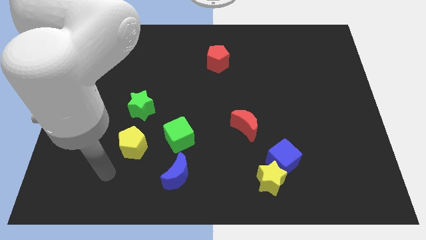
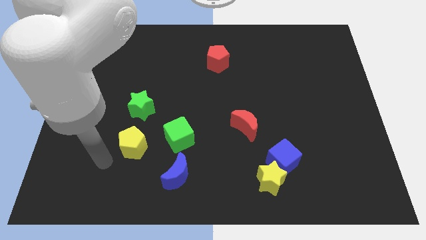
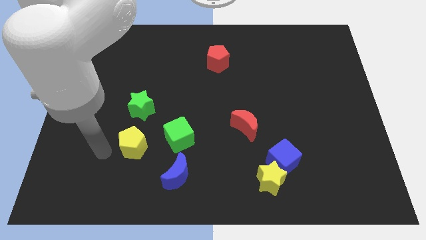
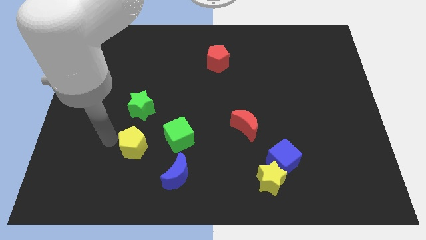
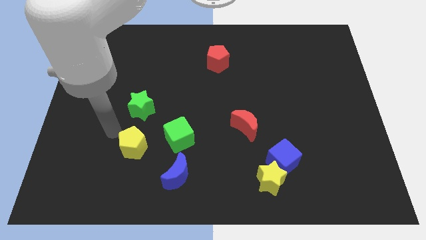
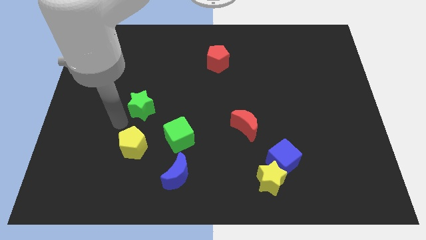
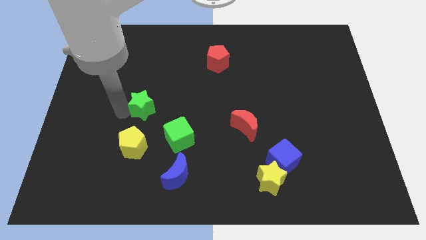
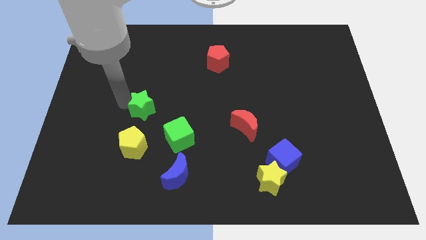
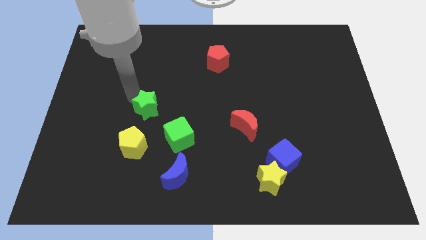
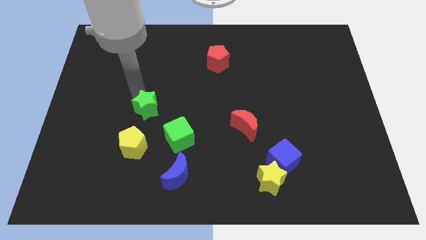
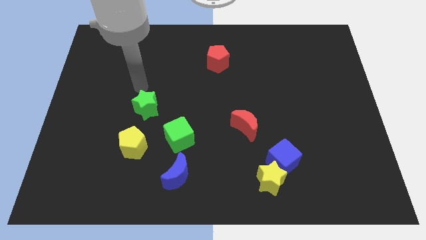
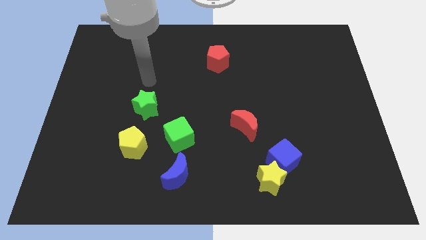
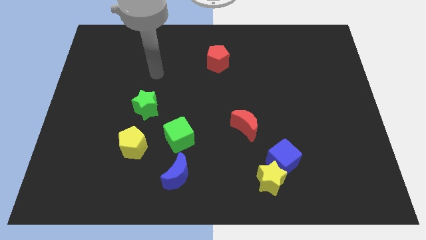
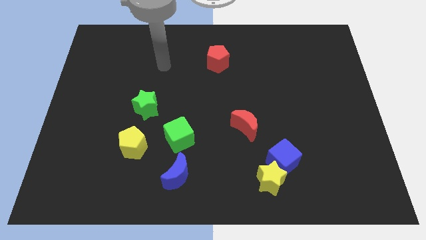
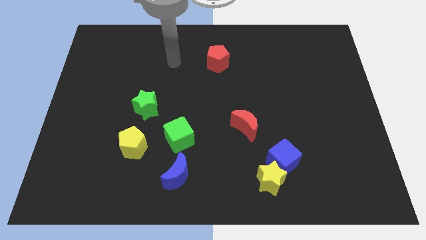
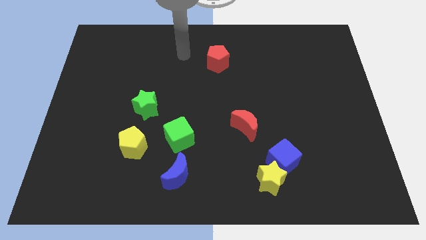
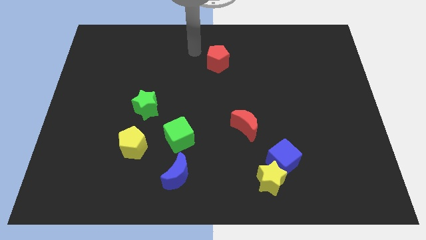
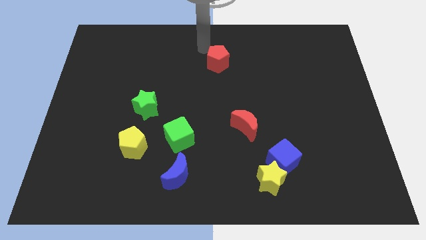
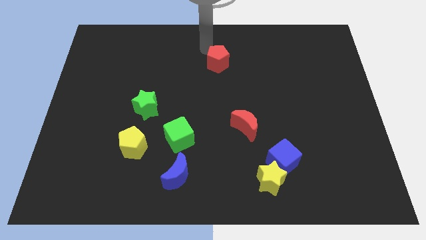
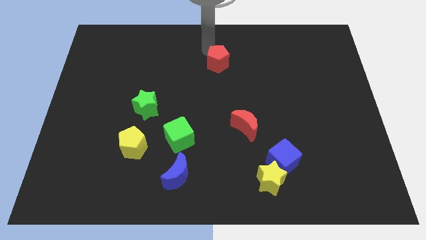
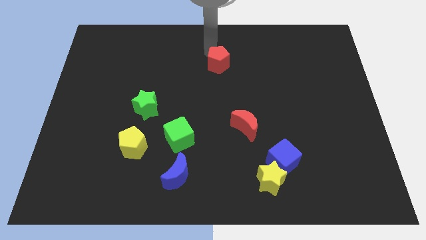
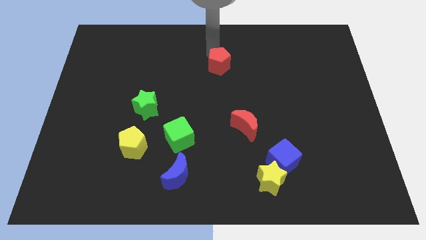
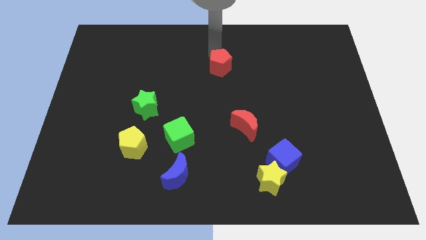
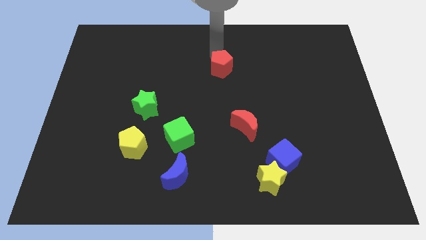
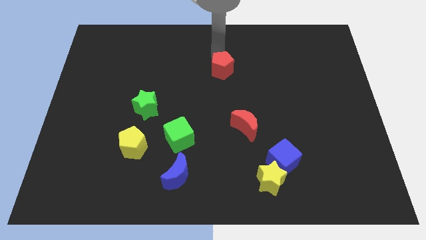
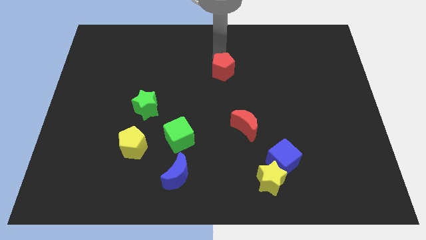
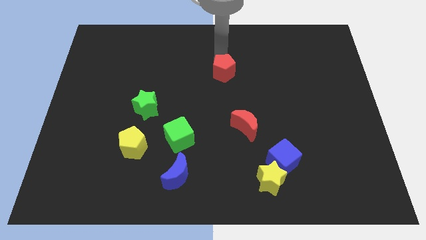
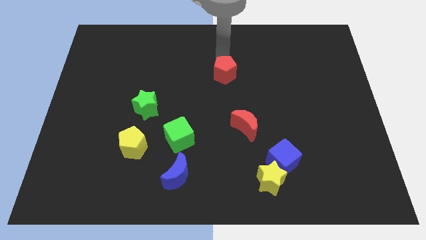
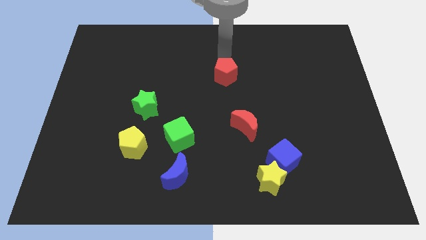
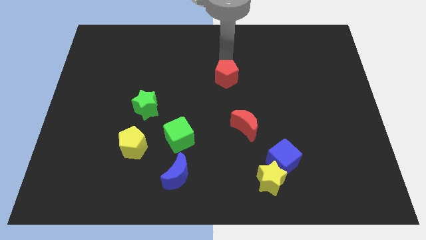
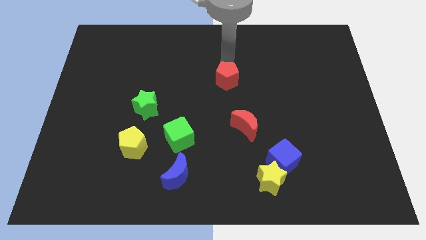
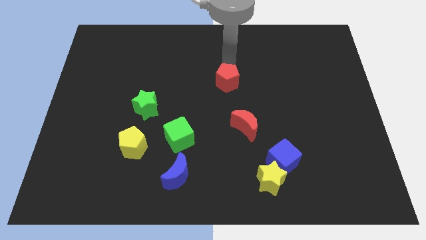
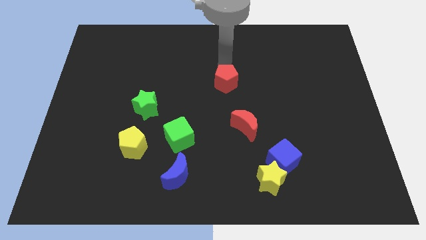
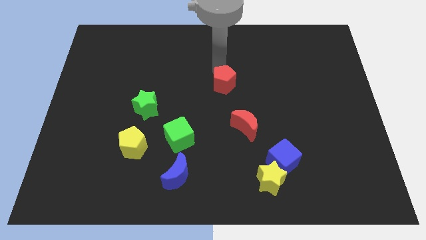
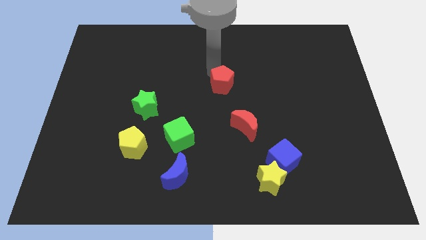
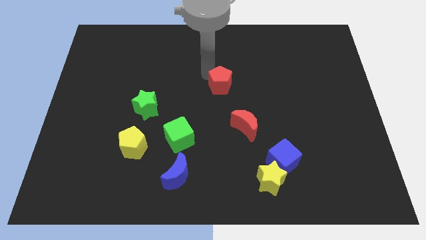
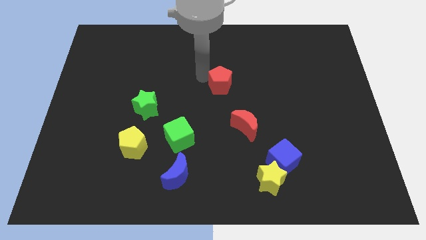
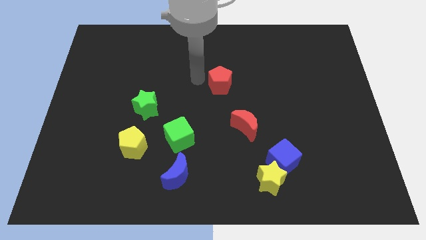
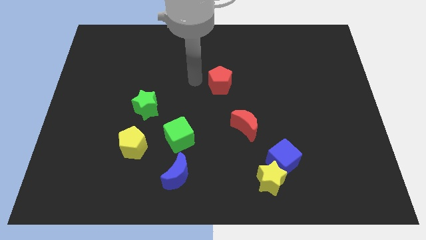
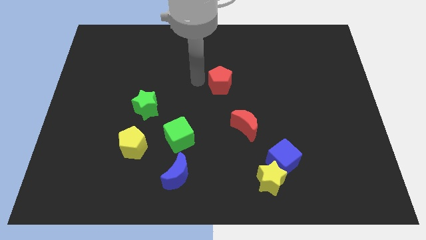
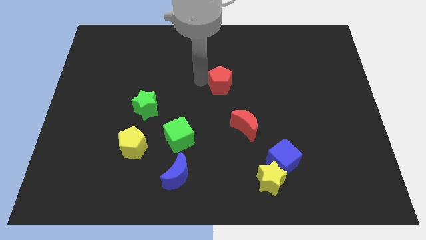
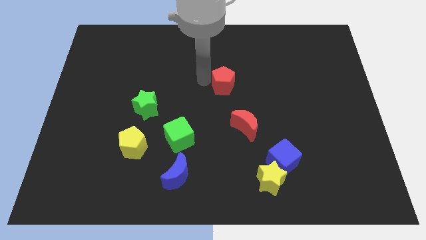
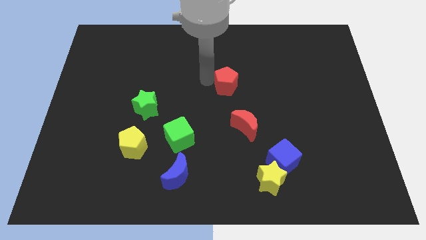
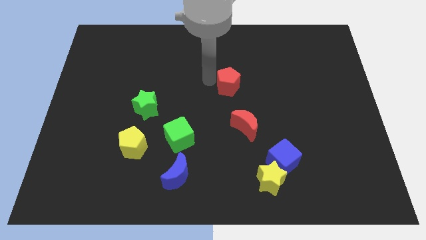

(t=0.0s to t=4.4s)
push the red pentagon diagonally down and right slightly

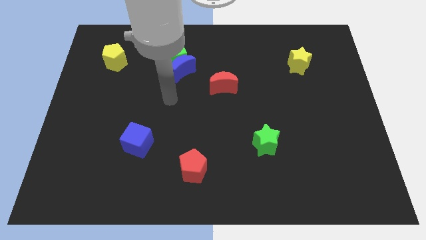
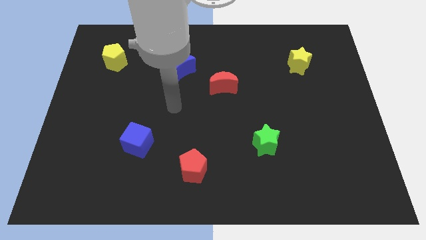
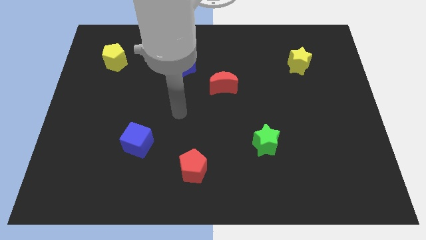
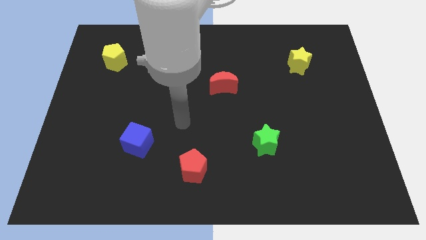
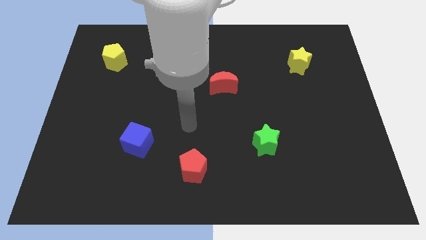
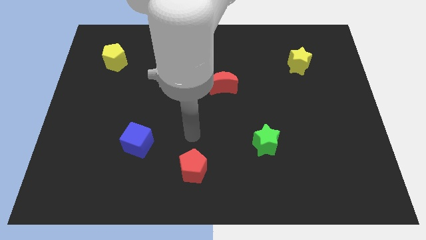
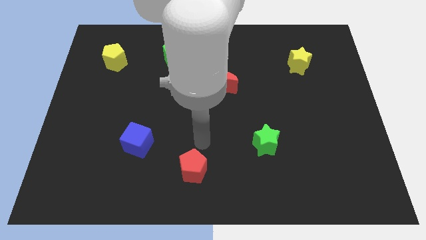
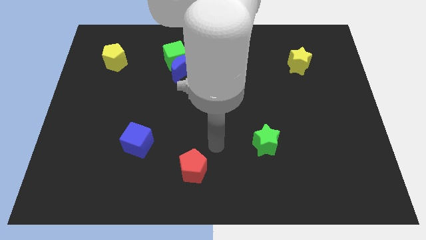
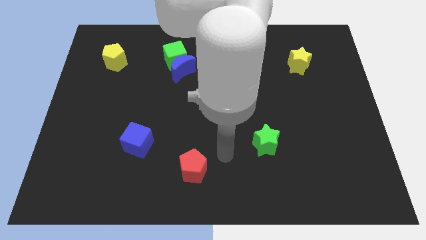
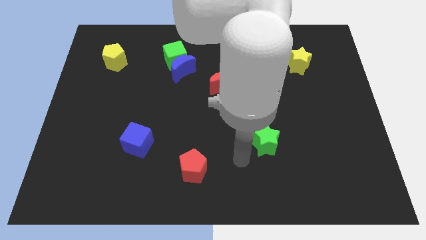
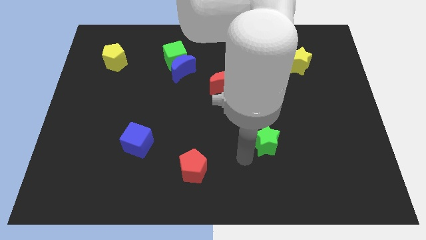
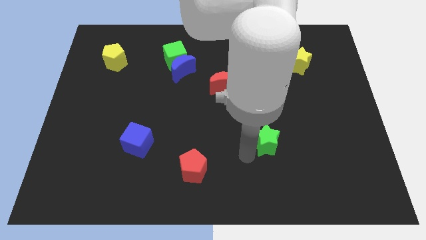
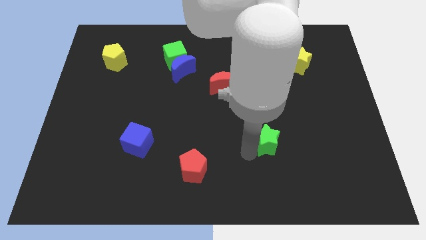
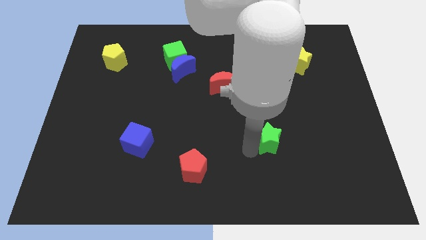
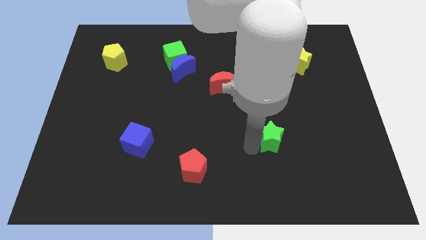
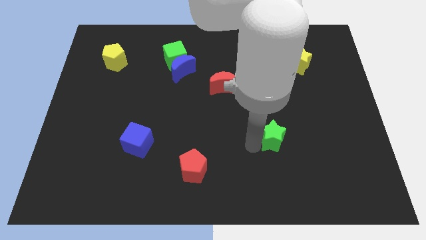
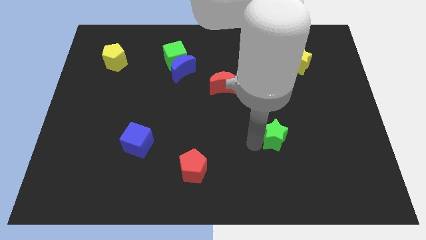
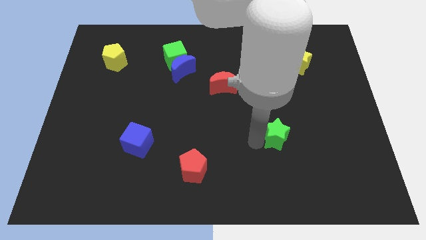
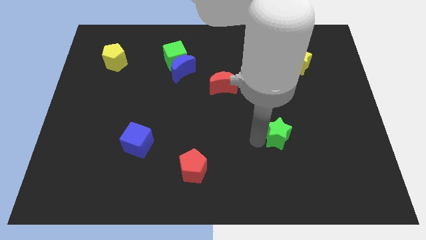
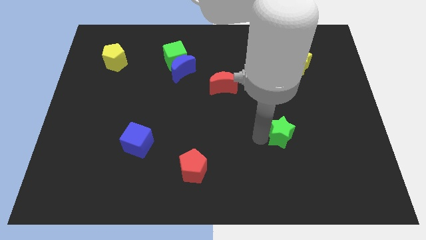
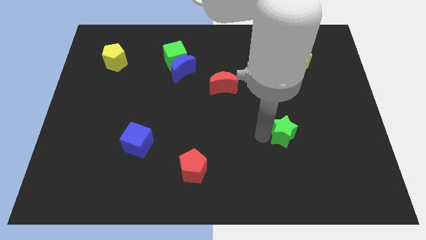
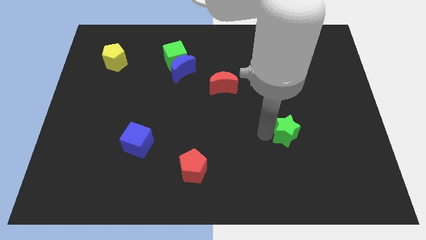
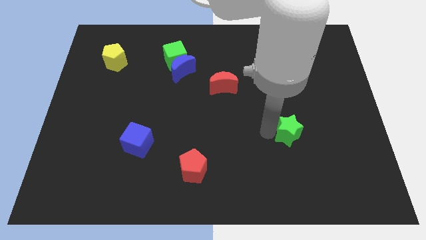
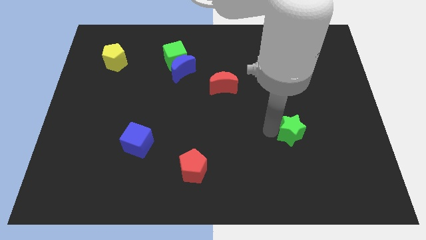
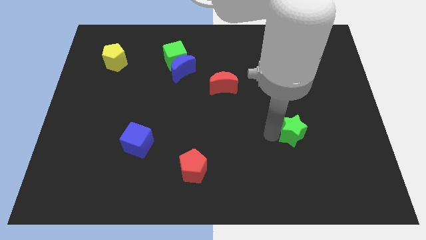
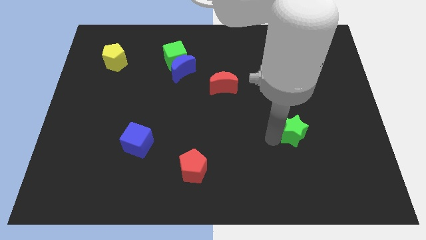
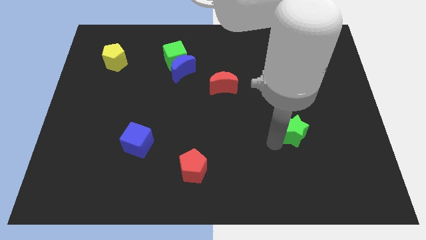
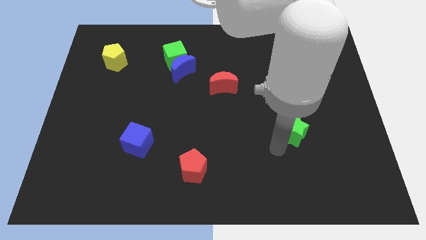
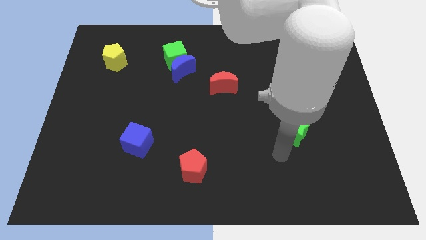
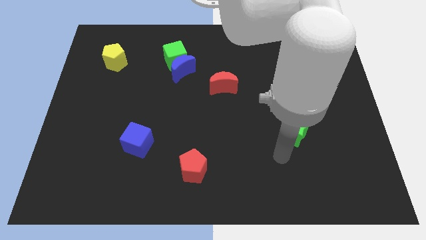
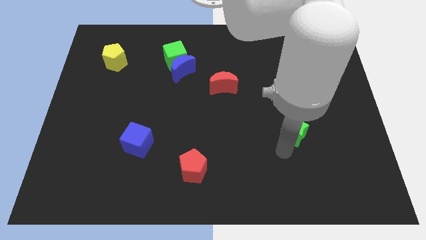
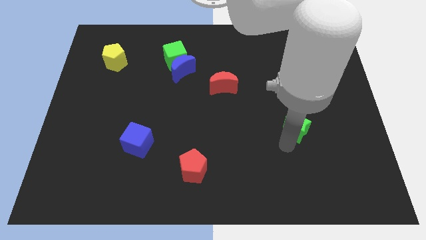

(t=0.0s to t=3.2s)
push the green star a little bit upwards and then to the right

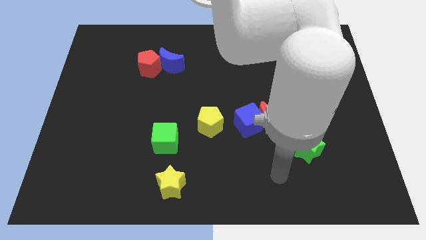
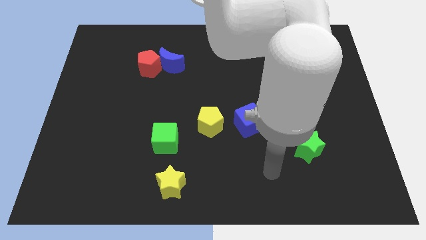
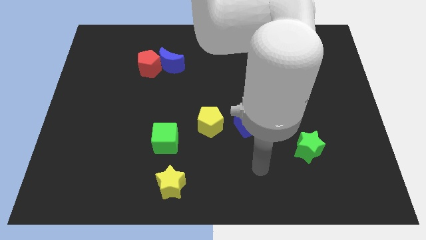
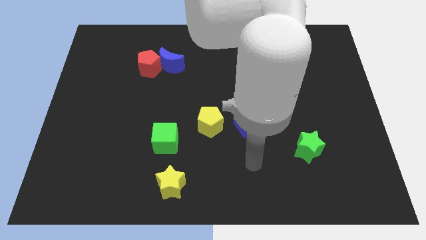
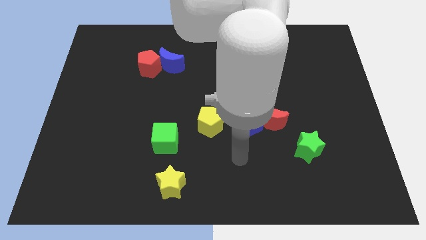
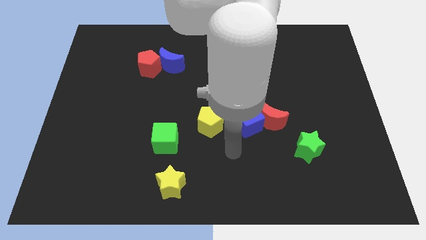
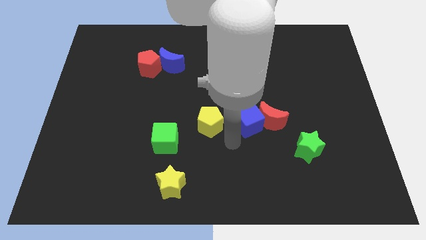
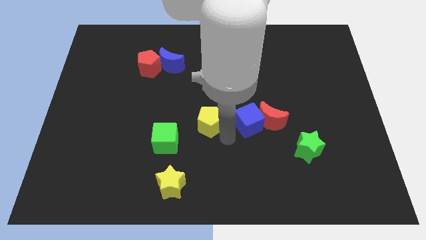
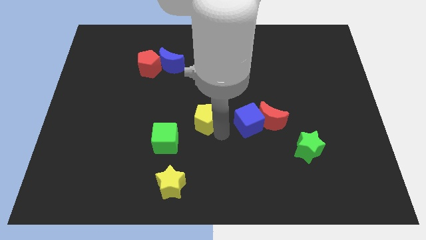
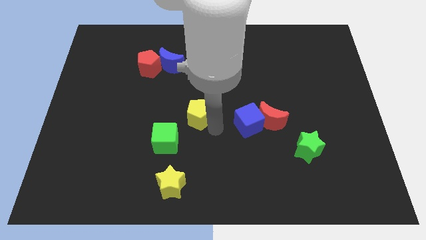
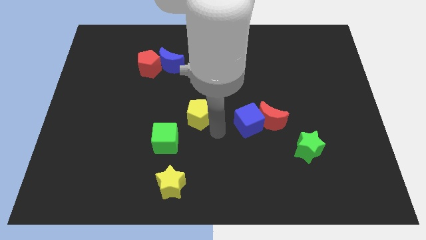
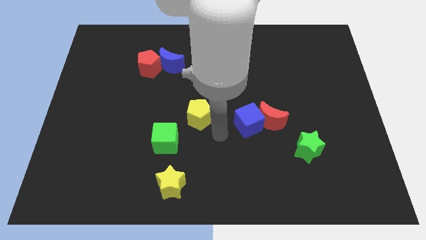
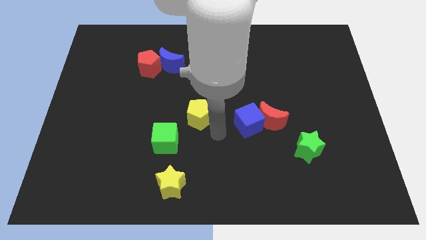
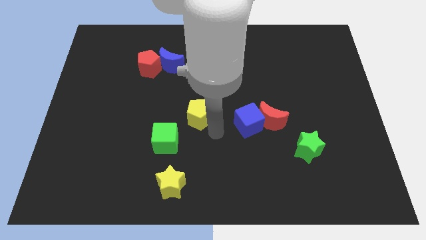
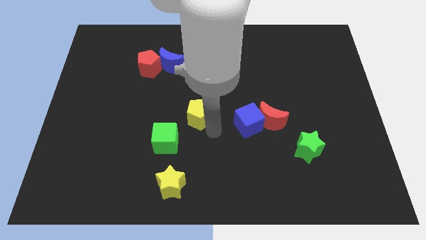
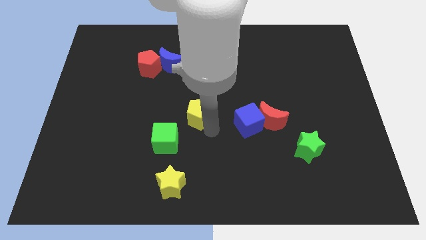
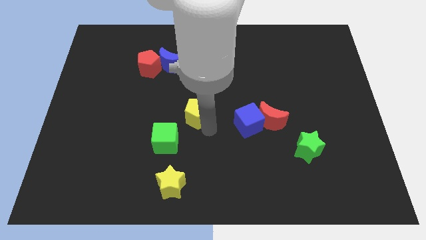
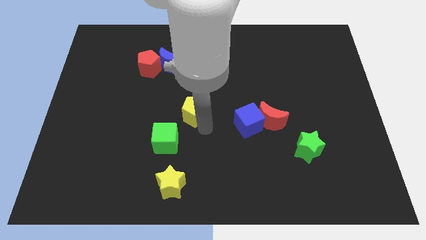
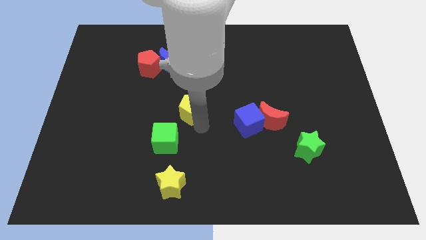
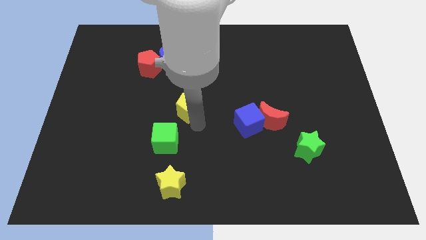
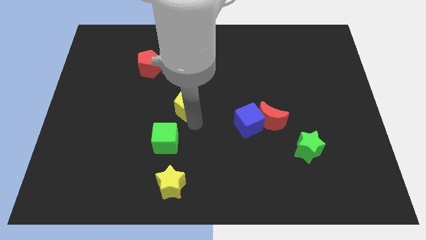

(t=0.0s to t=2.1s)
push the yellow pentagon diagonally upwards and to the left a little
